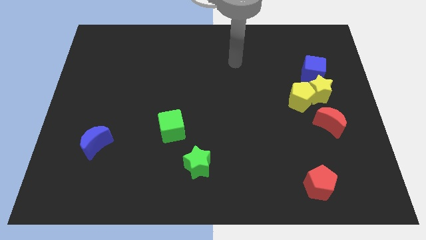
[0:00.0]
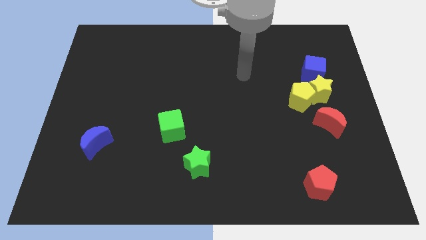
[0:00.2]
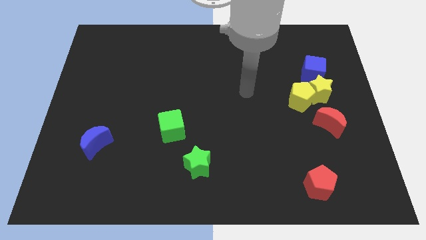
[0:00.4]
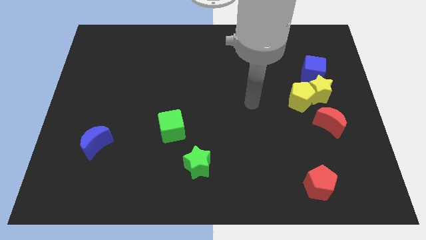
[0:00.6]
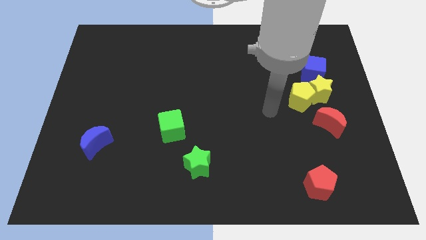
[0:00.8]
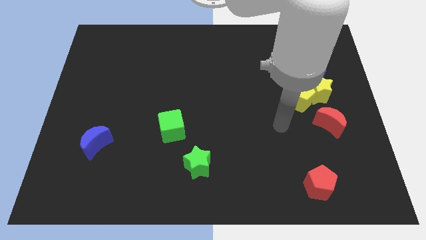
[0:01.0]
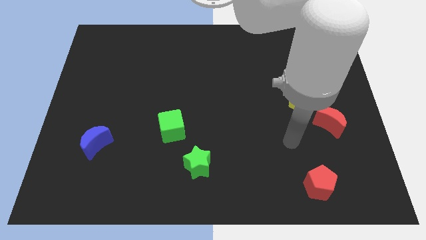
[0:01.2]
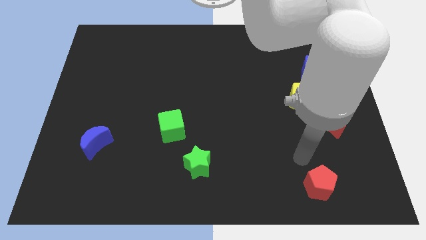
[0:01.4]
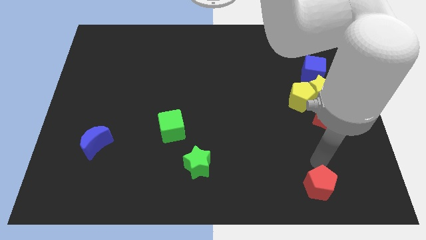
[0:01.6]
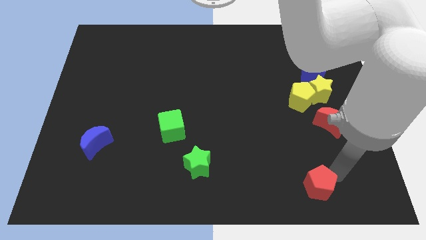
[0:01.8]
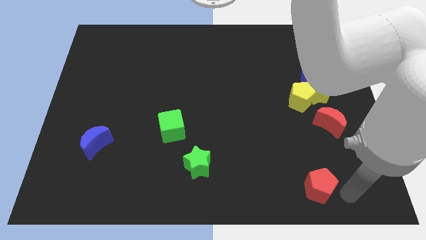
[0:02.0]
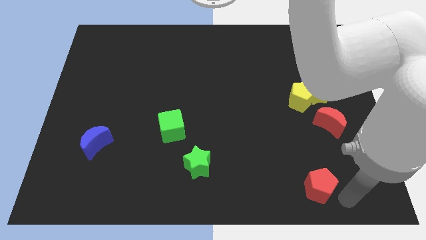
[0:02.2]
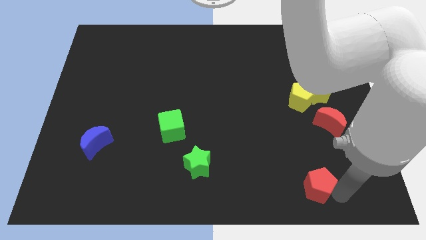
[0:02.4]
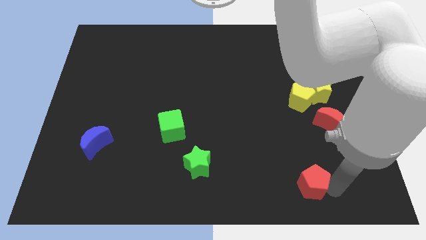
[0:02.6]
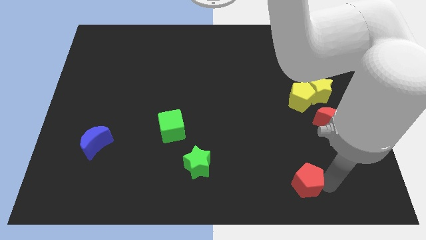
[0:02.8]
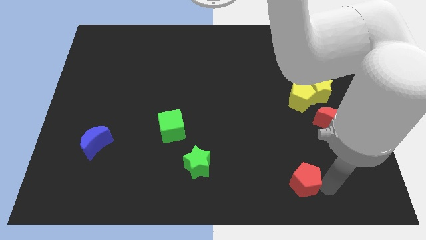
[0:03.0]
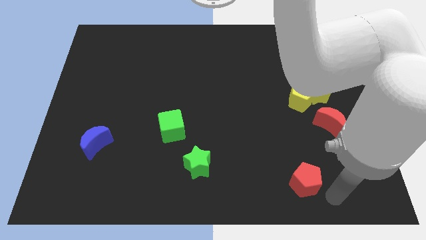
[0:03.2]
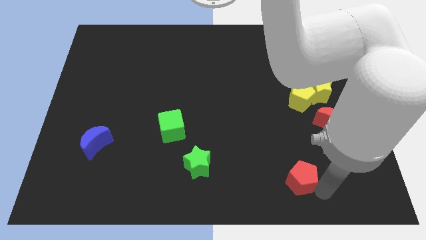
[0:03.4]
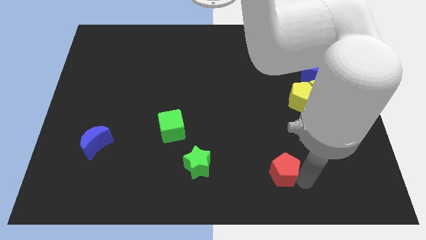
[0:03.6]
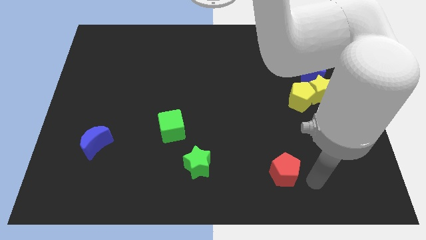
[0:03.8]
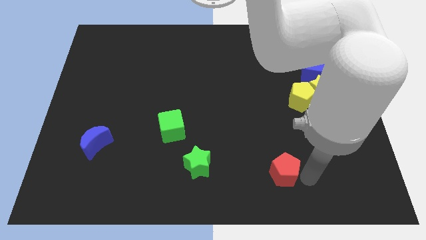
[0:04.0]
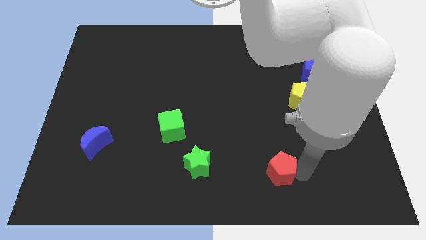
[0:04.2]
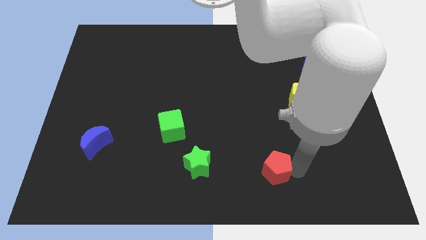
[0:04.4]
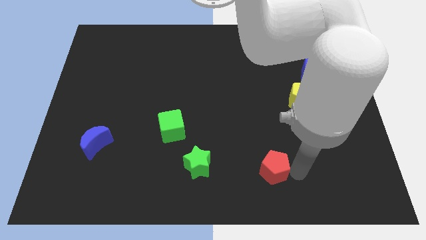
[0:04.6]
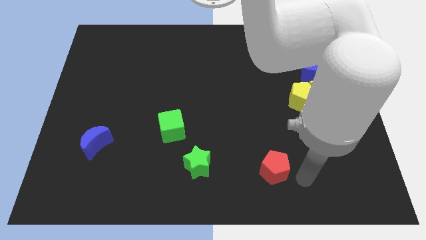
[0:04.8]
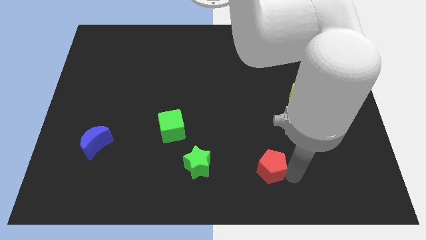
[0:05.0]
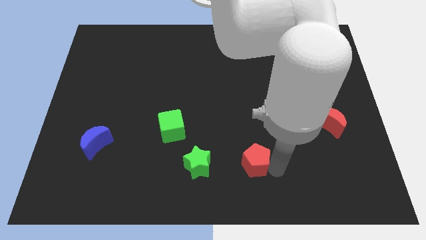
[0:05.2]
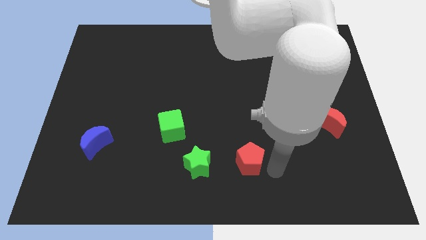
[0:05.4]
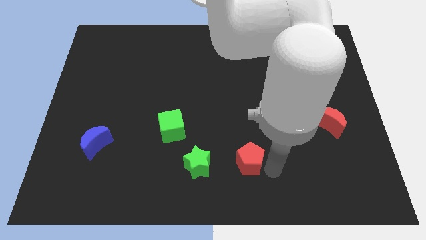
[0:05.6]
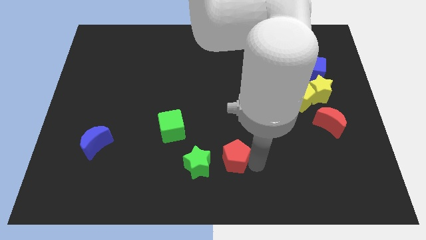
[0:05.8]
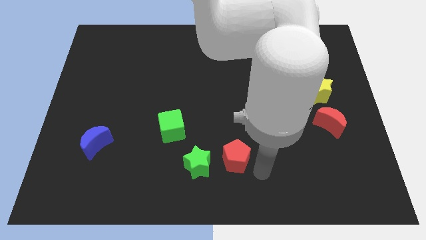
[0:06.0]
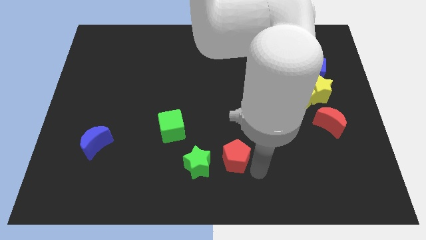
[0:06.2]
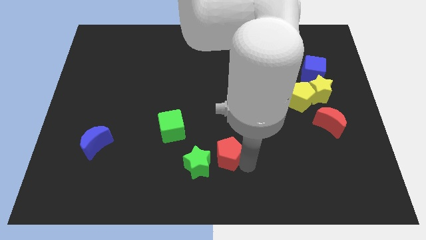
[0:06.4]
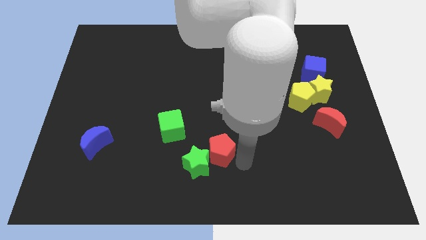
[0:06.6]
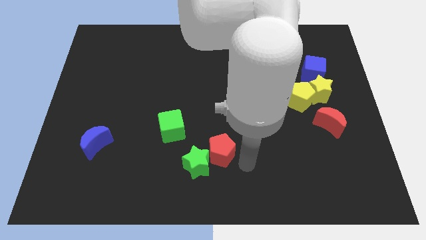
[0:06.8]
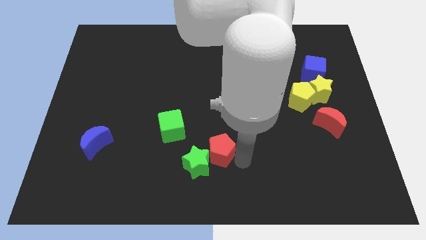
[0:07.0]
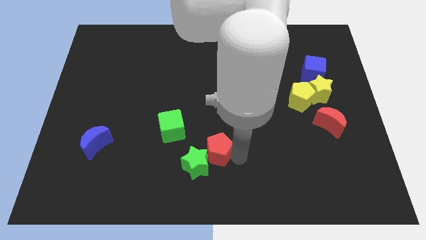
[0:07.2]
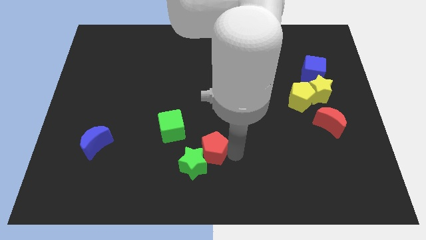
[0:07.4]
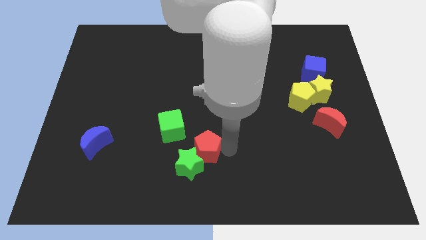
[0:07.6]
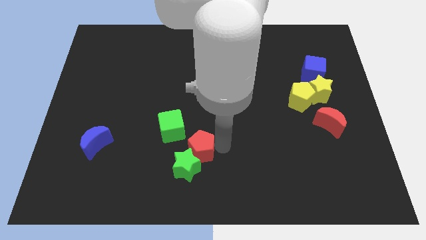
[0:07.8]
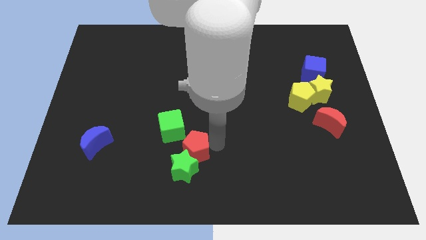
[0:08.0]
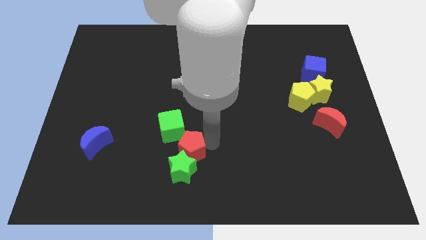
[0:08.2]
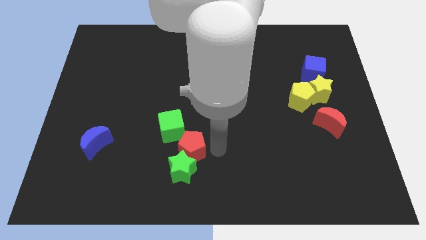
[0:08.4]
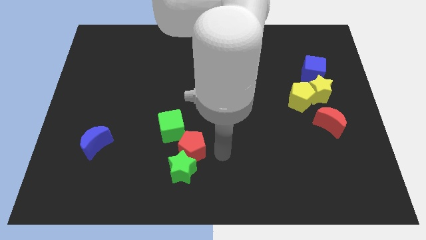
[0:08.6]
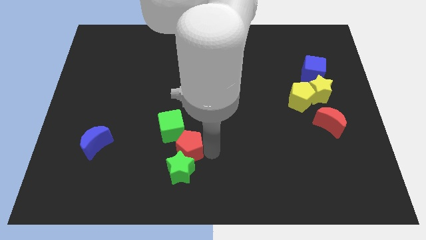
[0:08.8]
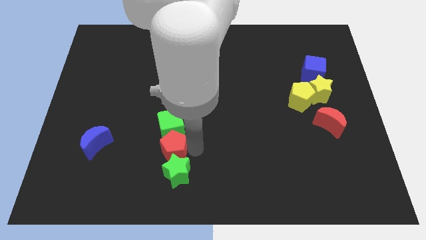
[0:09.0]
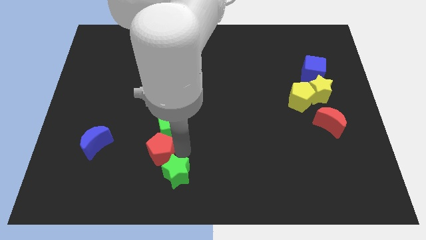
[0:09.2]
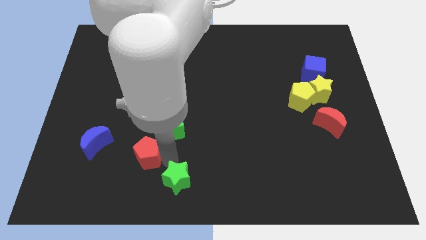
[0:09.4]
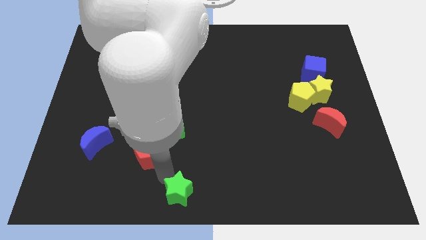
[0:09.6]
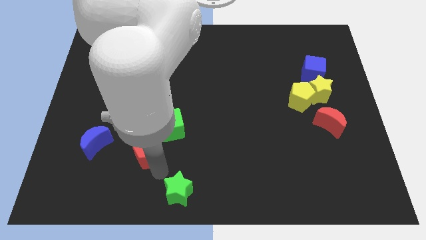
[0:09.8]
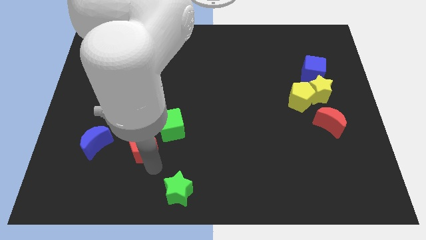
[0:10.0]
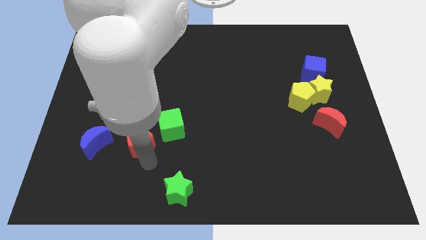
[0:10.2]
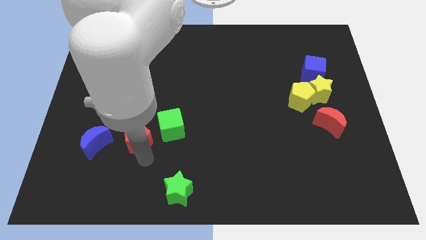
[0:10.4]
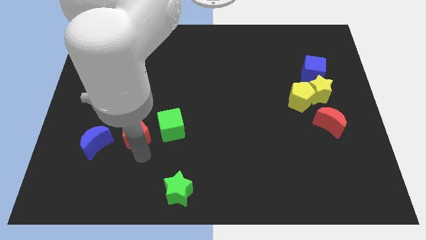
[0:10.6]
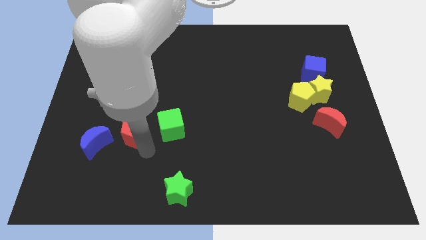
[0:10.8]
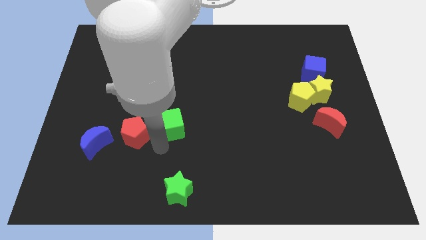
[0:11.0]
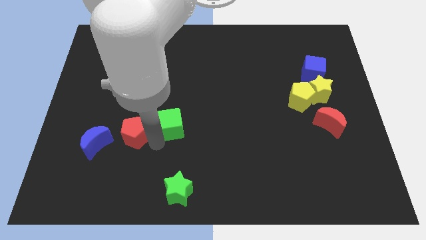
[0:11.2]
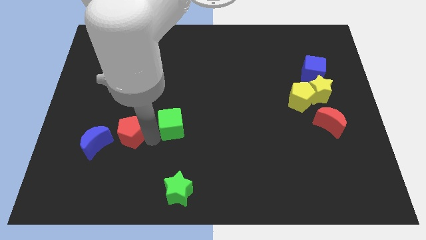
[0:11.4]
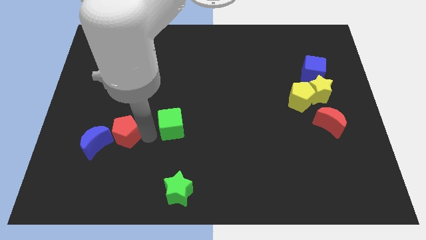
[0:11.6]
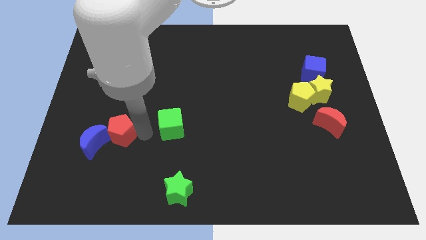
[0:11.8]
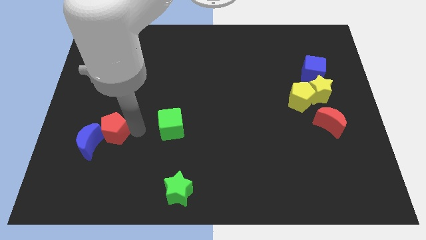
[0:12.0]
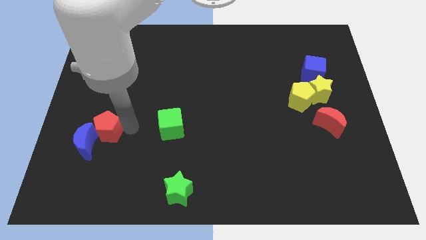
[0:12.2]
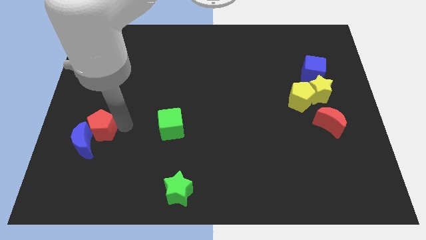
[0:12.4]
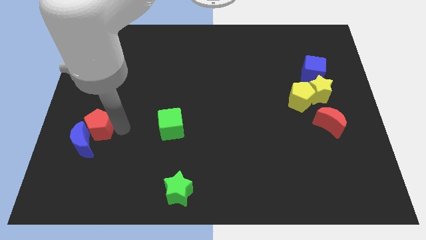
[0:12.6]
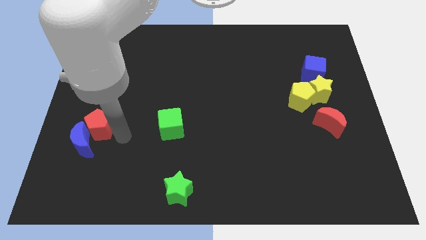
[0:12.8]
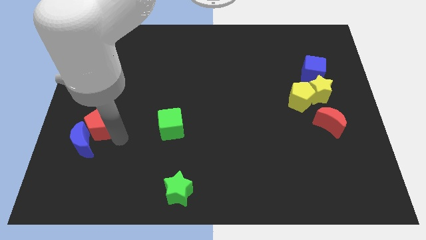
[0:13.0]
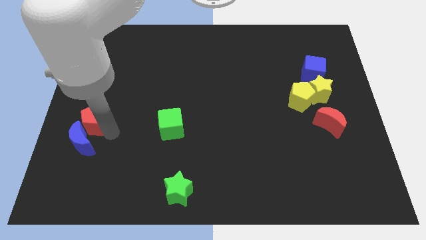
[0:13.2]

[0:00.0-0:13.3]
push the red pentagon to the left side of the board

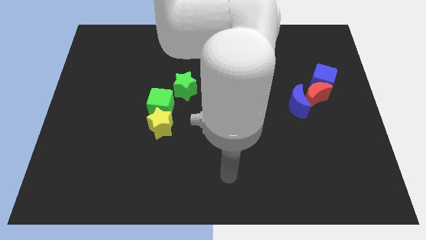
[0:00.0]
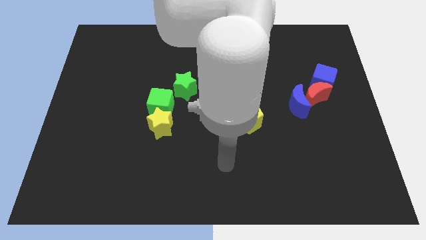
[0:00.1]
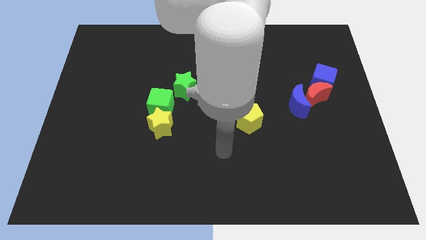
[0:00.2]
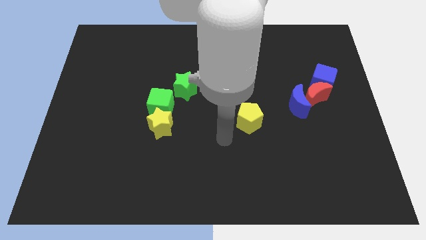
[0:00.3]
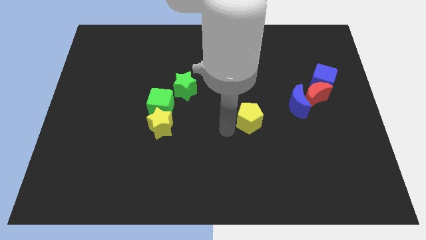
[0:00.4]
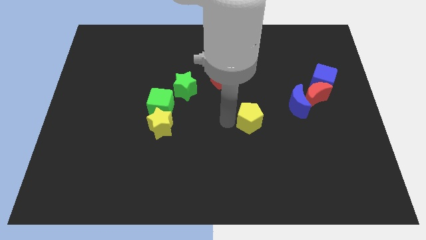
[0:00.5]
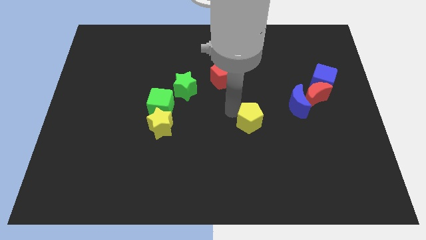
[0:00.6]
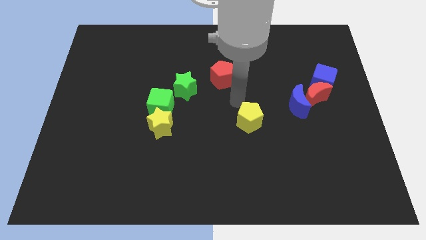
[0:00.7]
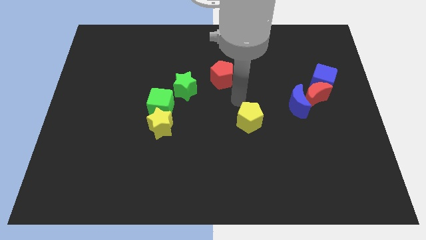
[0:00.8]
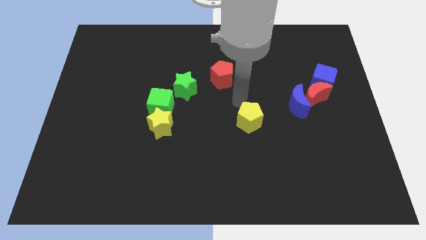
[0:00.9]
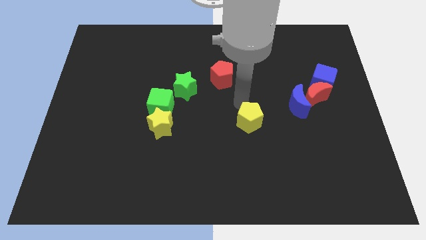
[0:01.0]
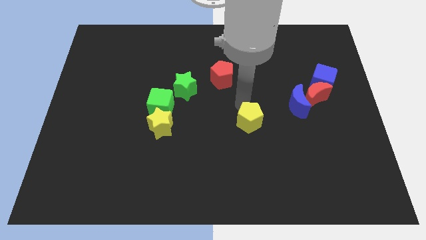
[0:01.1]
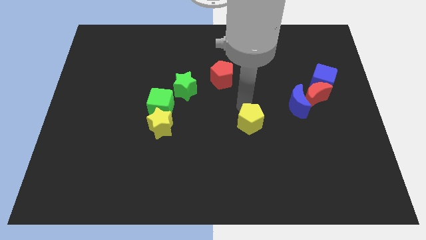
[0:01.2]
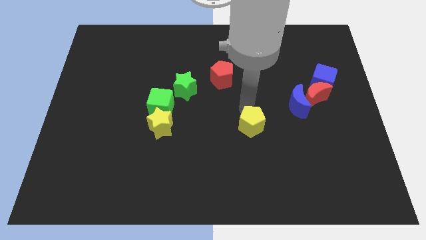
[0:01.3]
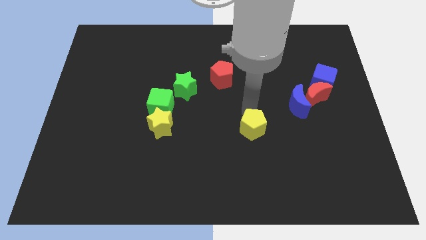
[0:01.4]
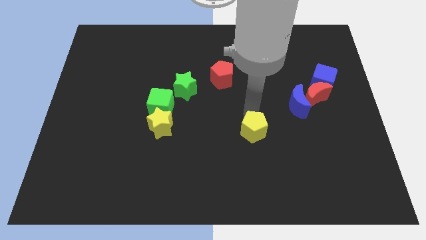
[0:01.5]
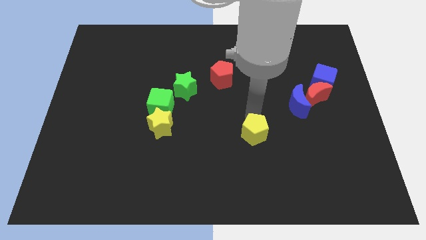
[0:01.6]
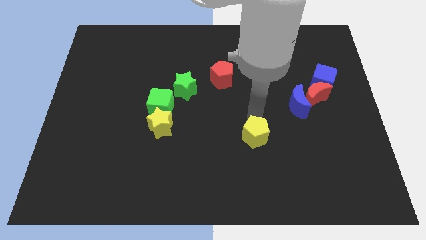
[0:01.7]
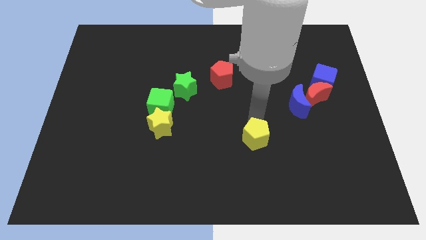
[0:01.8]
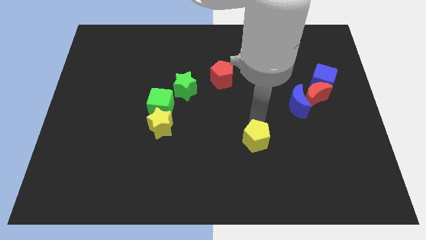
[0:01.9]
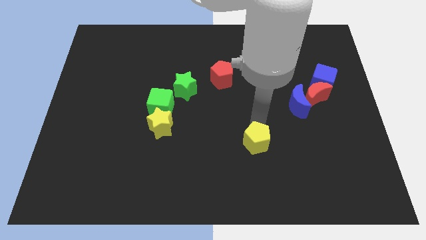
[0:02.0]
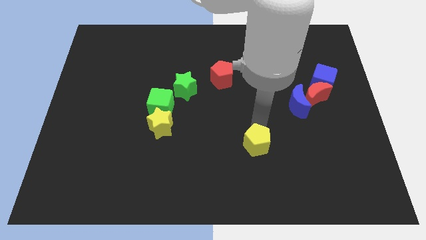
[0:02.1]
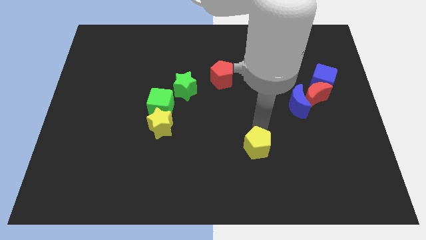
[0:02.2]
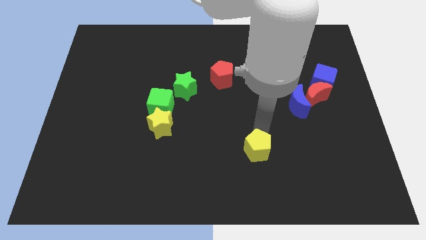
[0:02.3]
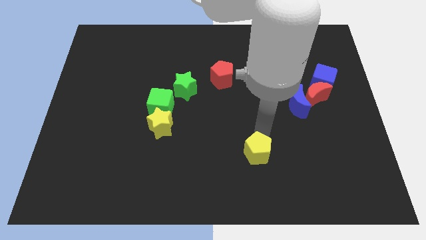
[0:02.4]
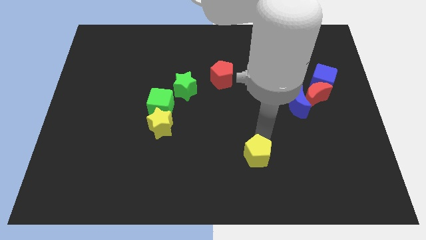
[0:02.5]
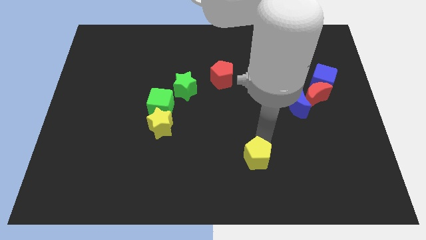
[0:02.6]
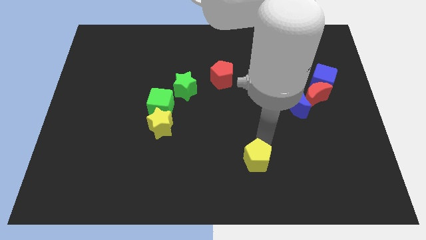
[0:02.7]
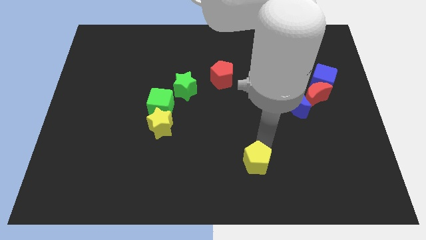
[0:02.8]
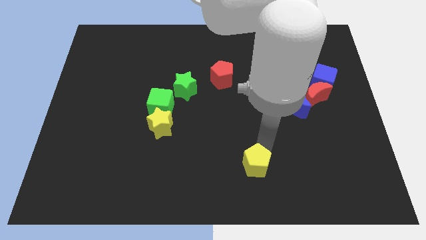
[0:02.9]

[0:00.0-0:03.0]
put the yellow pentagon to the bottom
